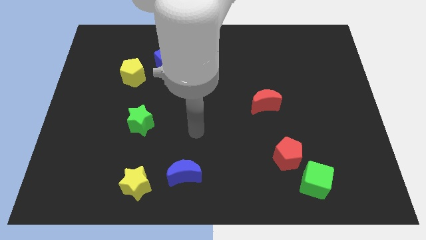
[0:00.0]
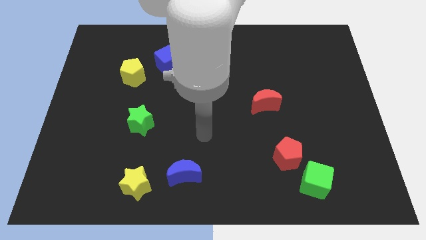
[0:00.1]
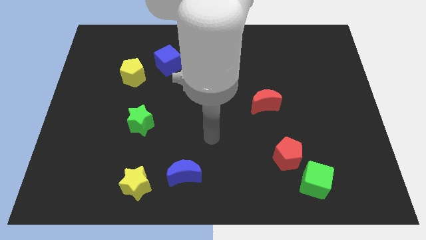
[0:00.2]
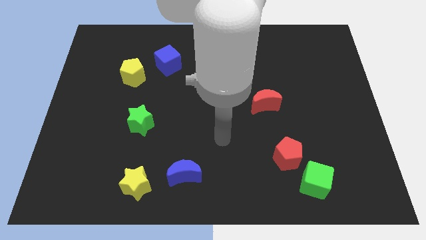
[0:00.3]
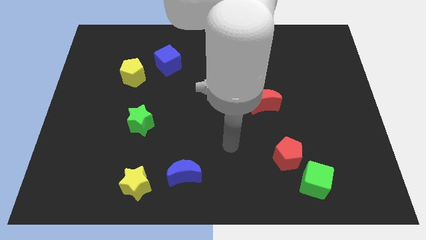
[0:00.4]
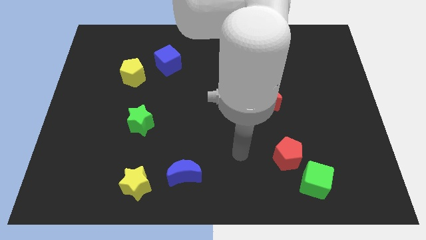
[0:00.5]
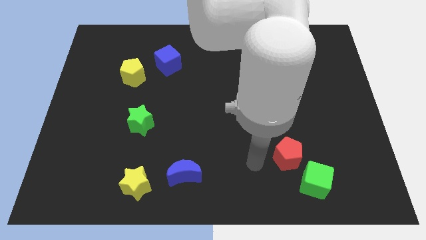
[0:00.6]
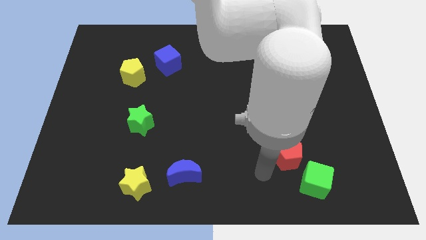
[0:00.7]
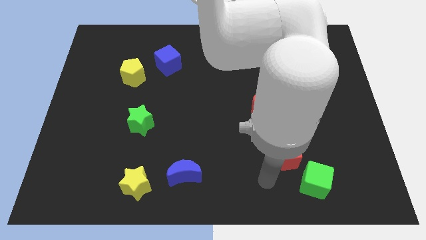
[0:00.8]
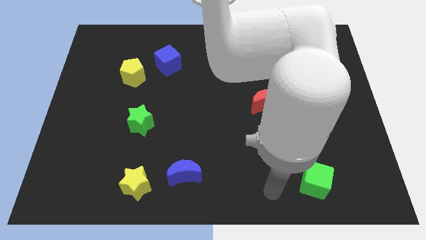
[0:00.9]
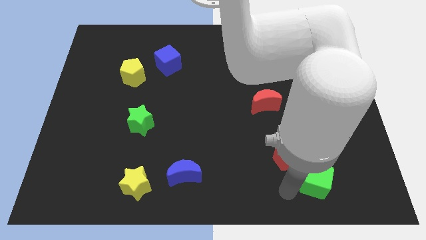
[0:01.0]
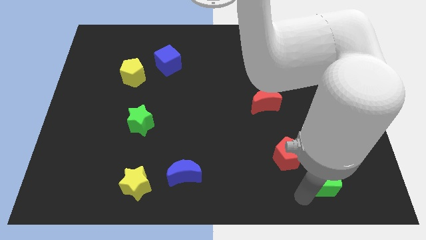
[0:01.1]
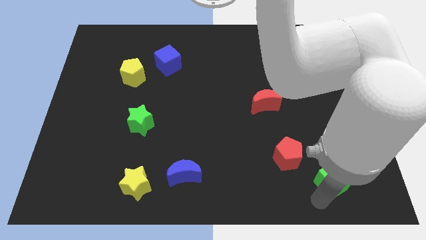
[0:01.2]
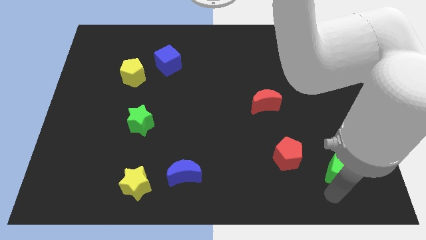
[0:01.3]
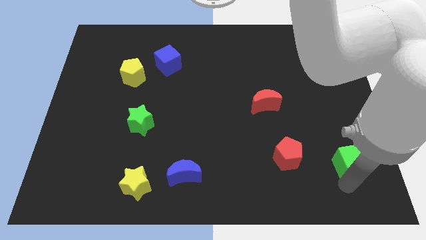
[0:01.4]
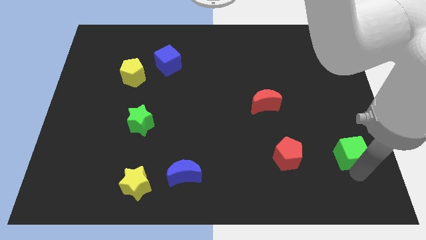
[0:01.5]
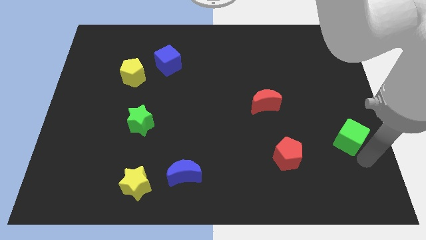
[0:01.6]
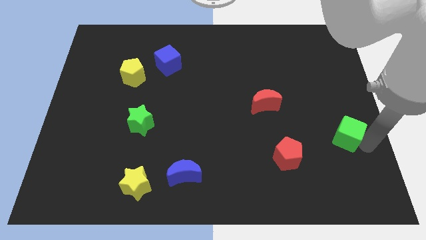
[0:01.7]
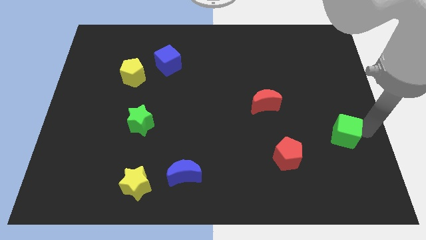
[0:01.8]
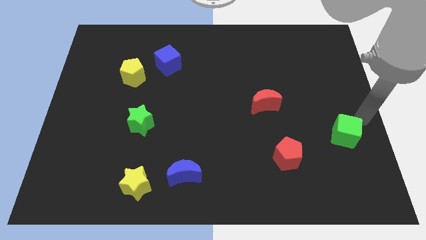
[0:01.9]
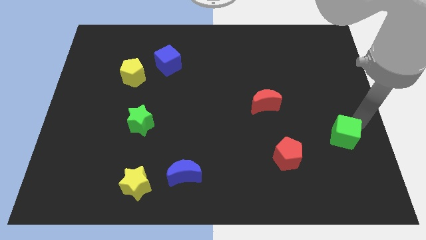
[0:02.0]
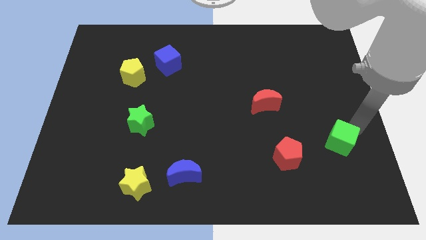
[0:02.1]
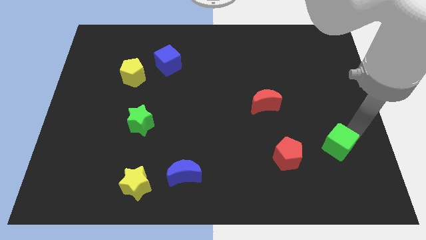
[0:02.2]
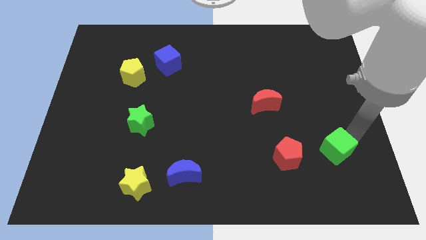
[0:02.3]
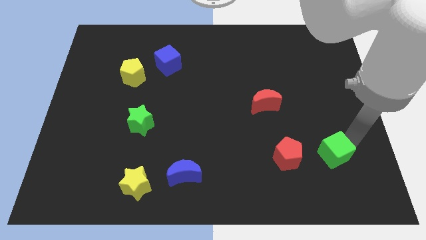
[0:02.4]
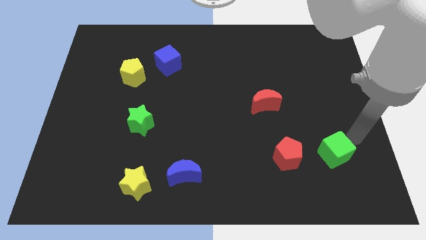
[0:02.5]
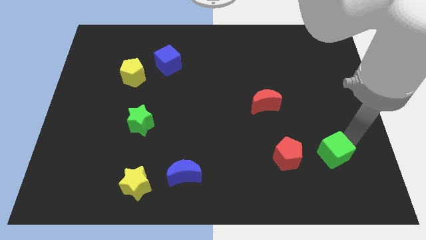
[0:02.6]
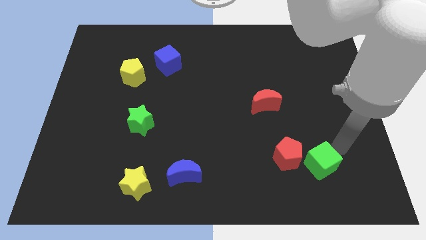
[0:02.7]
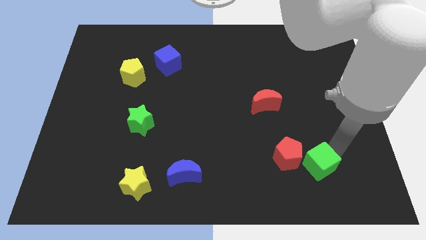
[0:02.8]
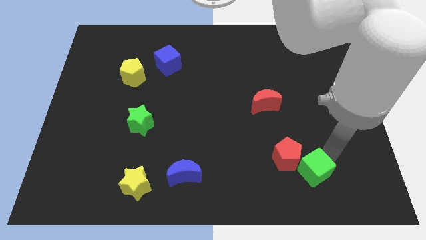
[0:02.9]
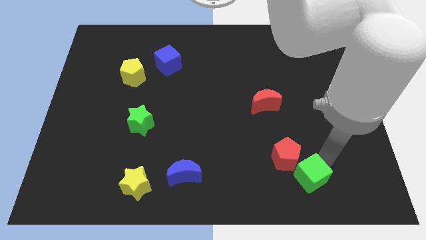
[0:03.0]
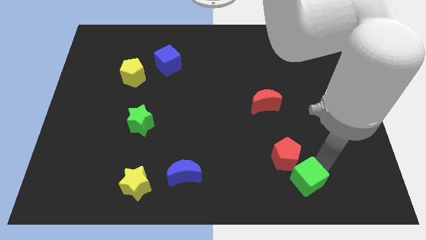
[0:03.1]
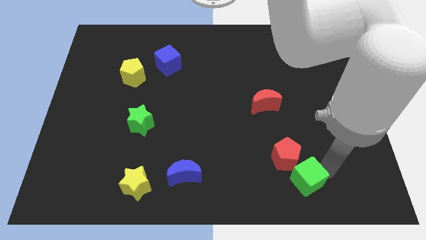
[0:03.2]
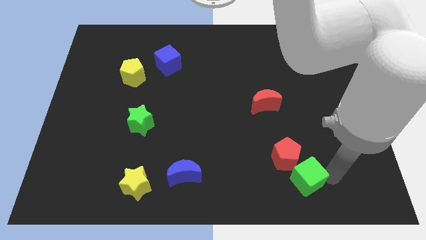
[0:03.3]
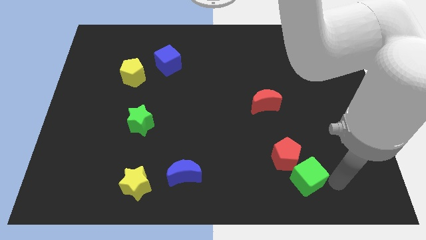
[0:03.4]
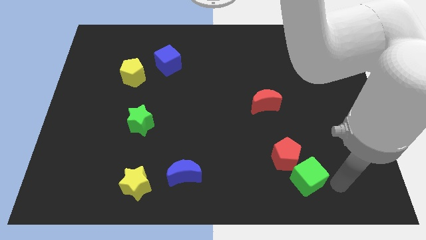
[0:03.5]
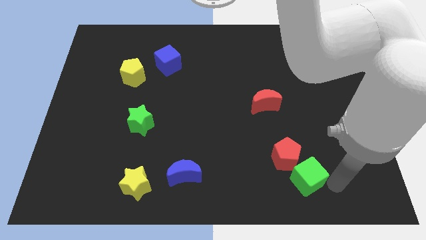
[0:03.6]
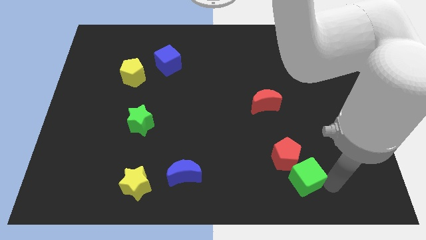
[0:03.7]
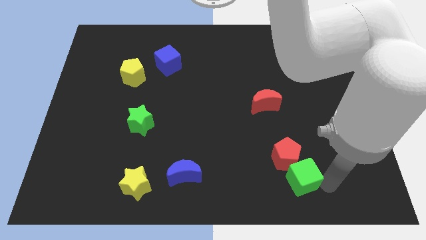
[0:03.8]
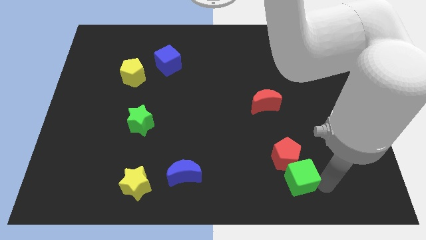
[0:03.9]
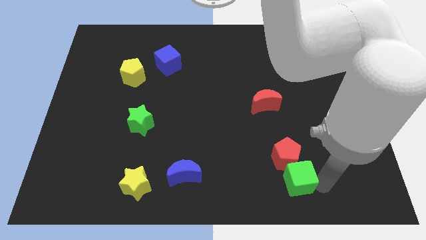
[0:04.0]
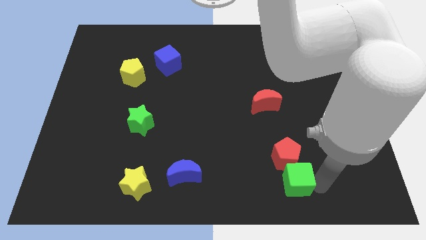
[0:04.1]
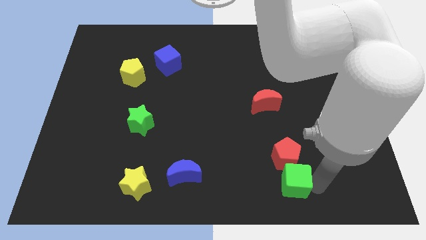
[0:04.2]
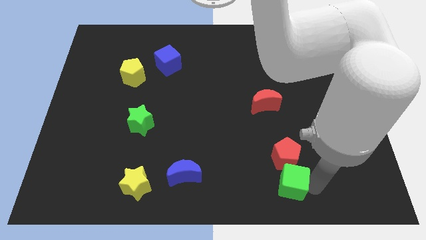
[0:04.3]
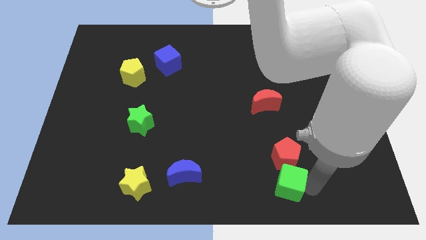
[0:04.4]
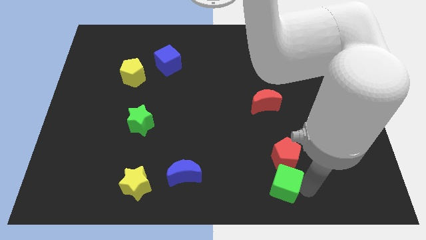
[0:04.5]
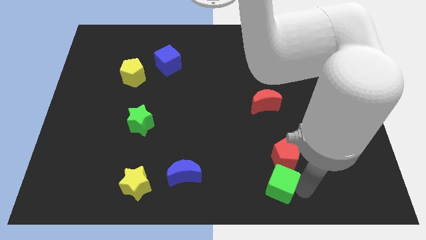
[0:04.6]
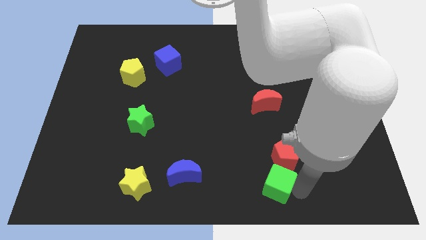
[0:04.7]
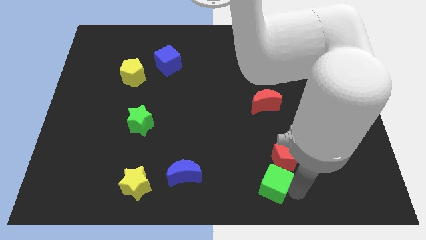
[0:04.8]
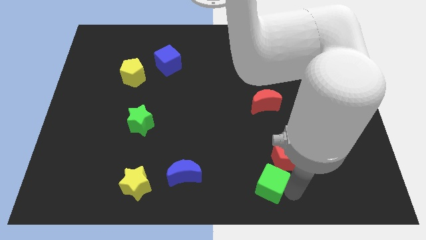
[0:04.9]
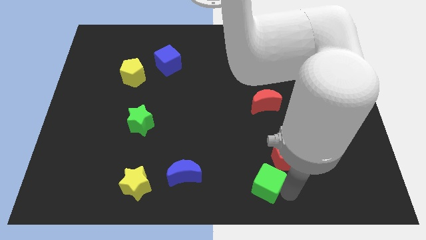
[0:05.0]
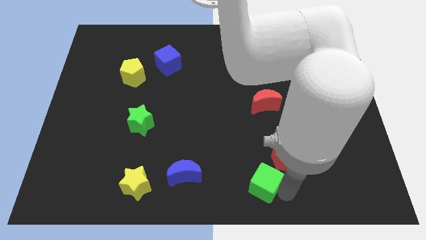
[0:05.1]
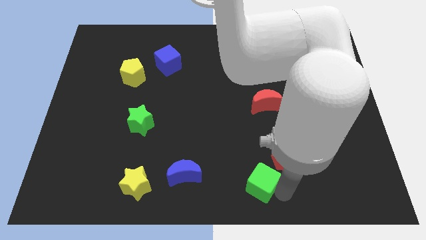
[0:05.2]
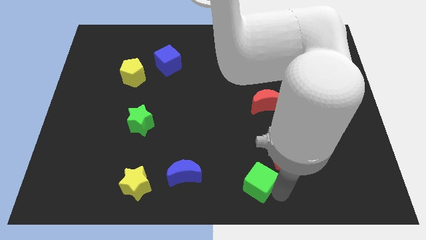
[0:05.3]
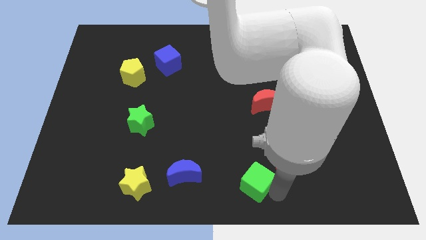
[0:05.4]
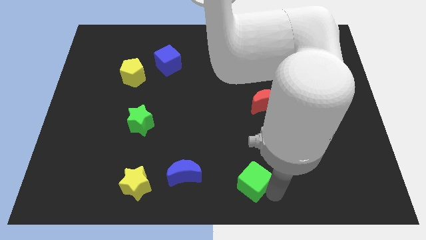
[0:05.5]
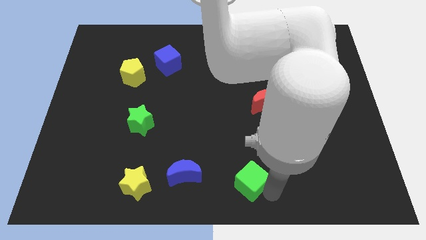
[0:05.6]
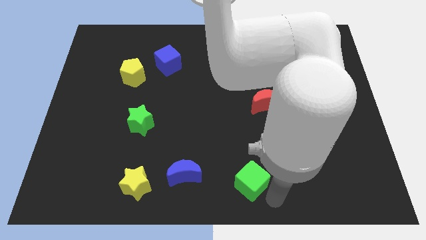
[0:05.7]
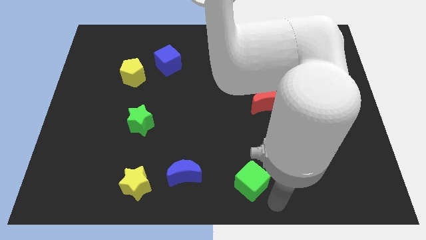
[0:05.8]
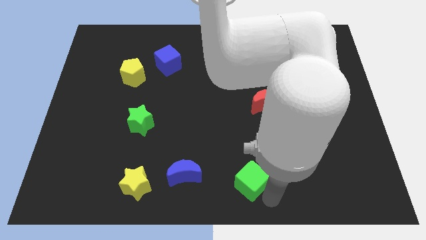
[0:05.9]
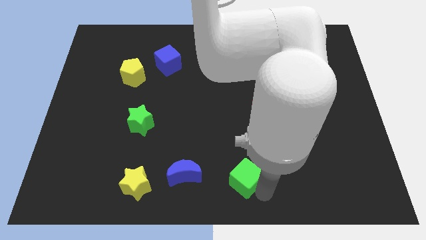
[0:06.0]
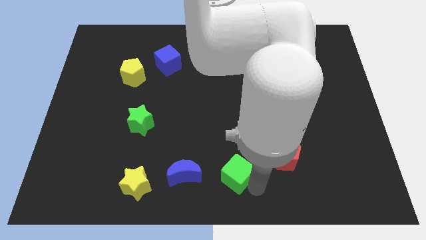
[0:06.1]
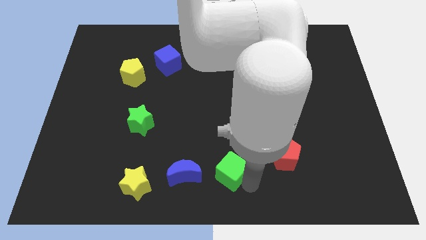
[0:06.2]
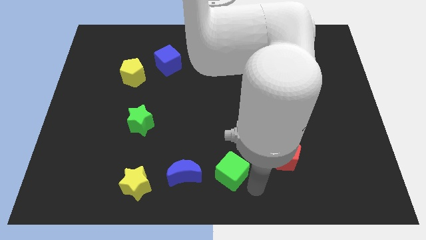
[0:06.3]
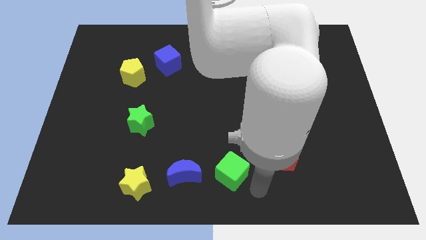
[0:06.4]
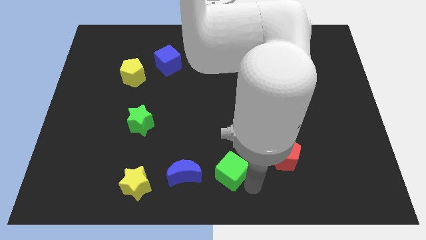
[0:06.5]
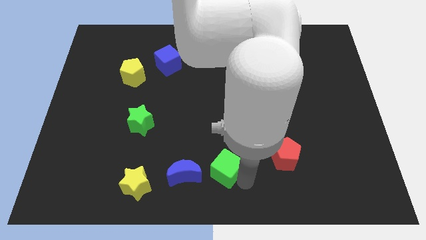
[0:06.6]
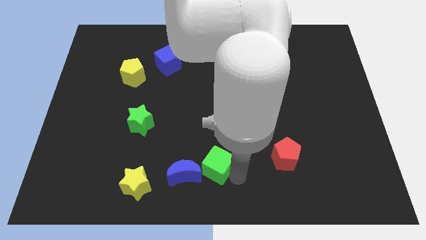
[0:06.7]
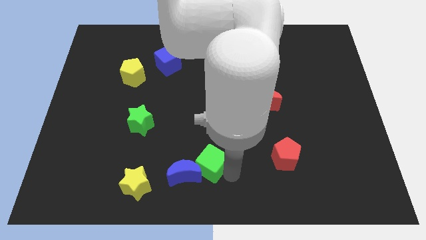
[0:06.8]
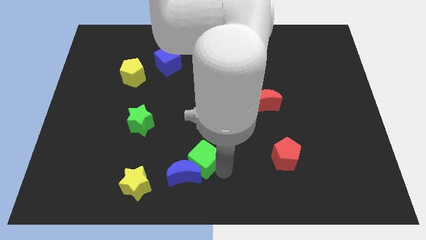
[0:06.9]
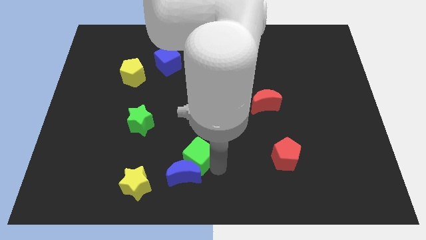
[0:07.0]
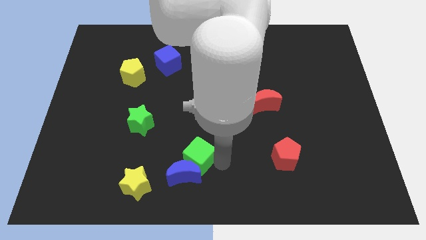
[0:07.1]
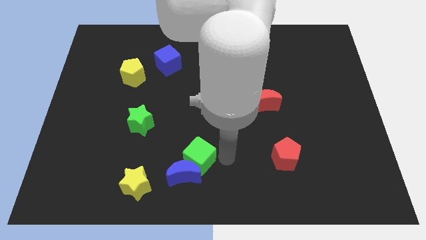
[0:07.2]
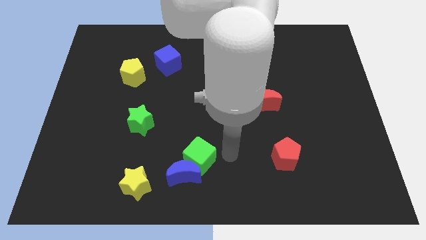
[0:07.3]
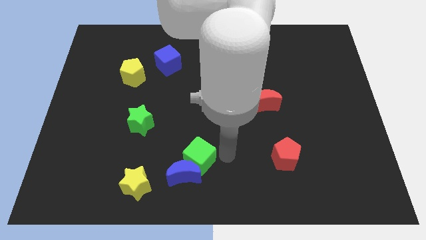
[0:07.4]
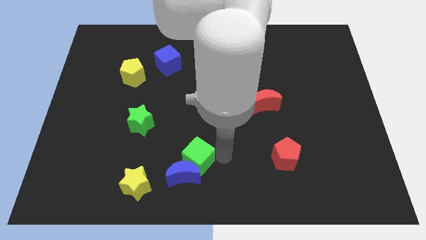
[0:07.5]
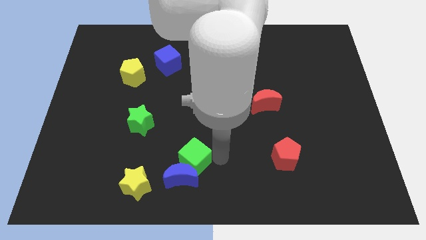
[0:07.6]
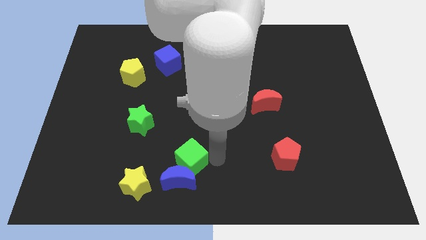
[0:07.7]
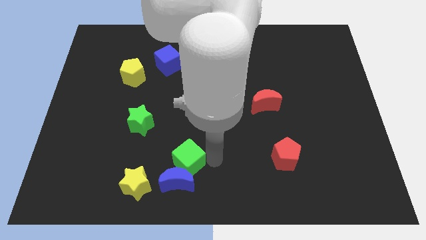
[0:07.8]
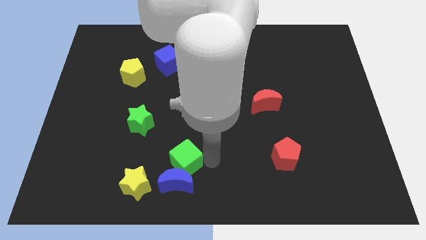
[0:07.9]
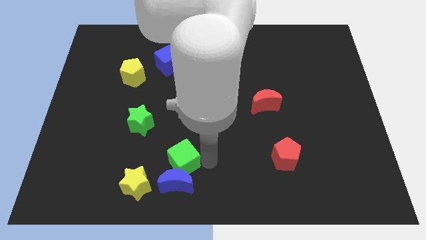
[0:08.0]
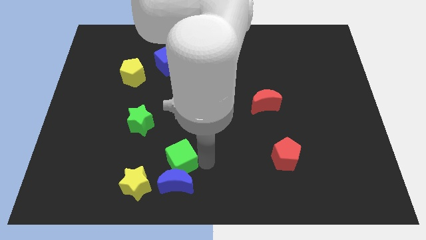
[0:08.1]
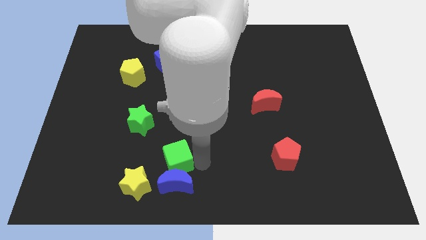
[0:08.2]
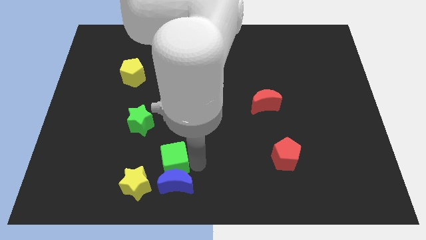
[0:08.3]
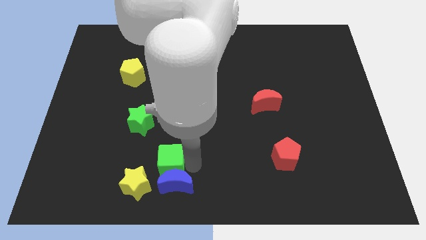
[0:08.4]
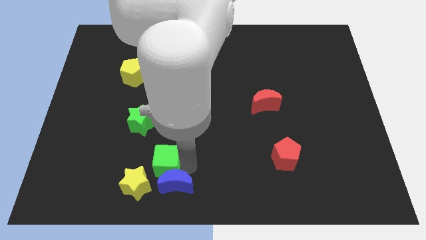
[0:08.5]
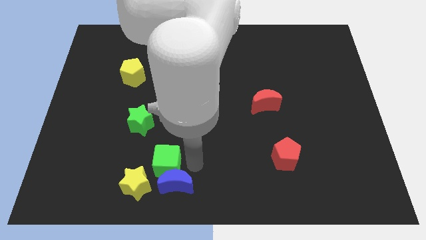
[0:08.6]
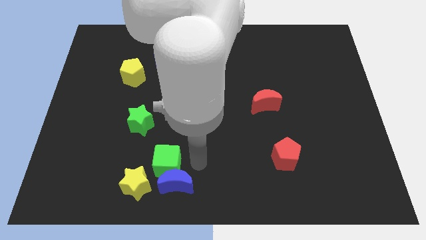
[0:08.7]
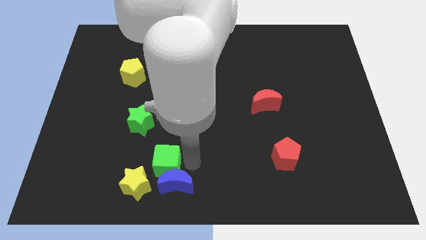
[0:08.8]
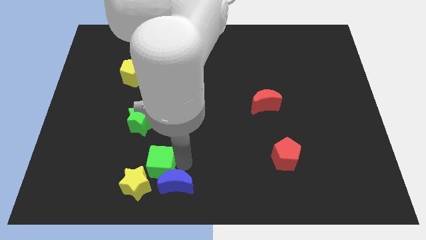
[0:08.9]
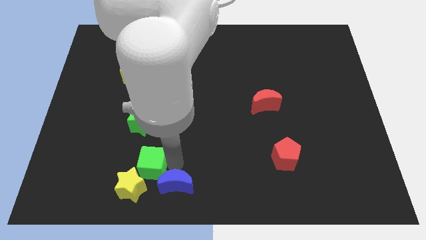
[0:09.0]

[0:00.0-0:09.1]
move the green cube to the bottom of the green star
